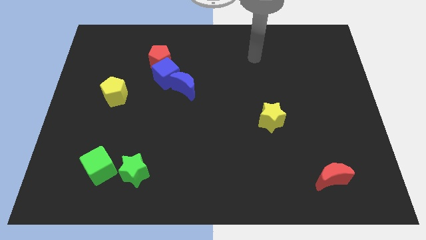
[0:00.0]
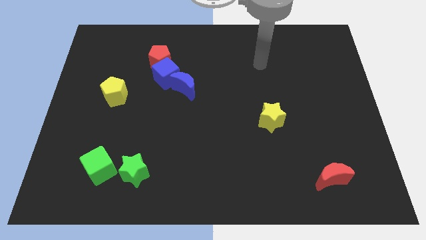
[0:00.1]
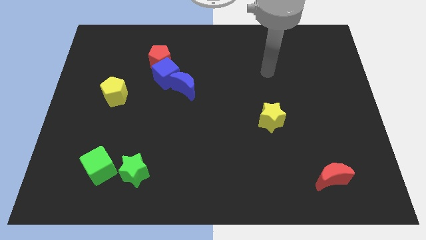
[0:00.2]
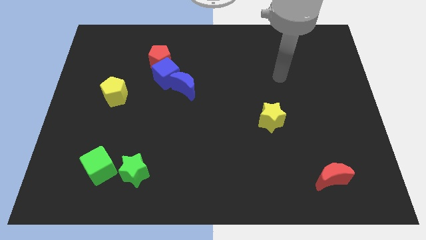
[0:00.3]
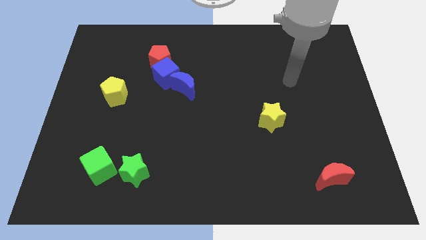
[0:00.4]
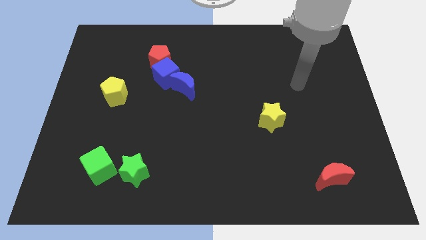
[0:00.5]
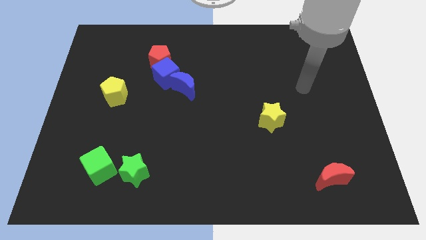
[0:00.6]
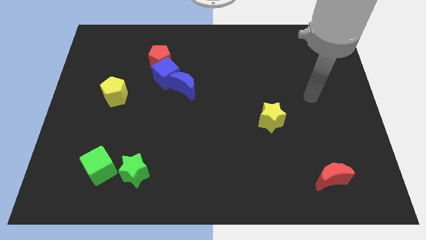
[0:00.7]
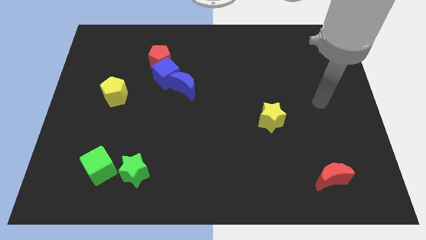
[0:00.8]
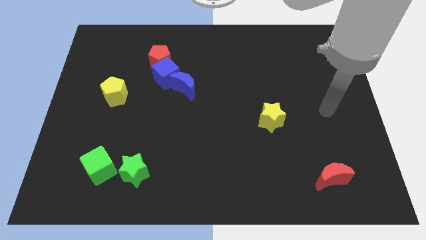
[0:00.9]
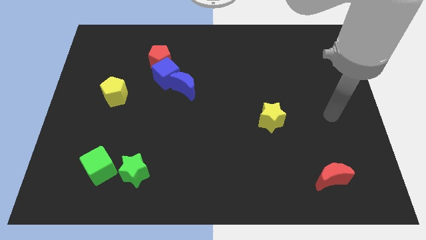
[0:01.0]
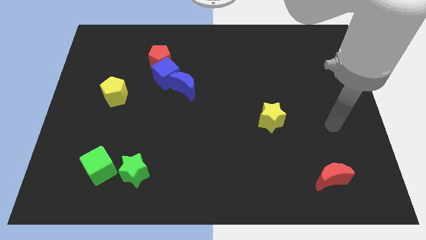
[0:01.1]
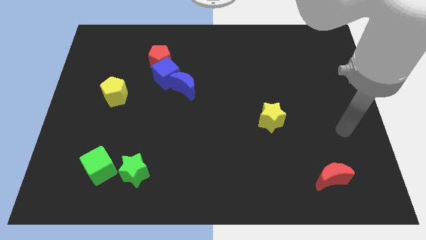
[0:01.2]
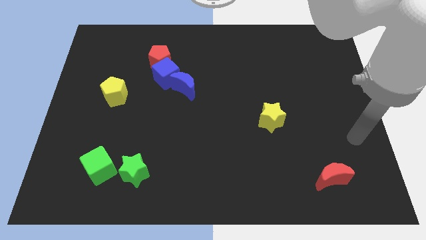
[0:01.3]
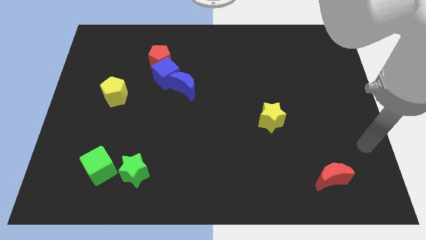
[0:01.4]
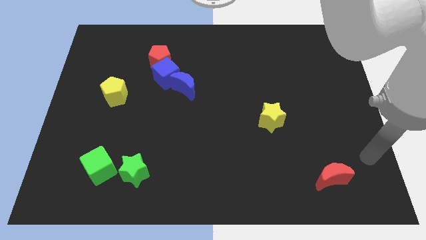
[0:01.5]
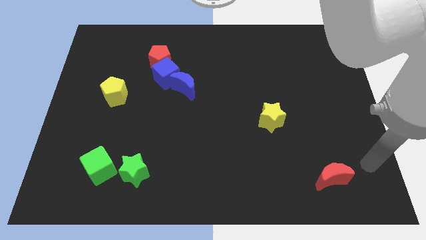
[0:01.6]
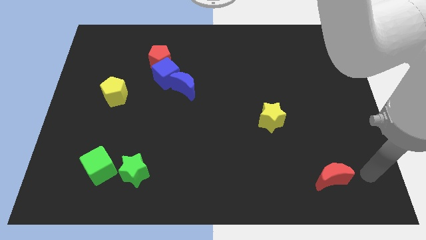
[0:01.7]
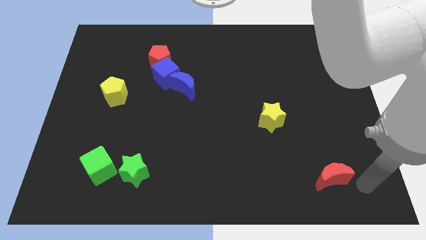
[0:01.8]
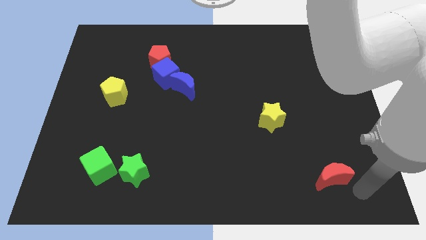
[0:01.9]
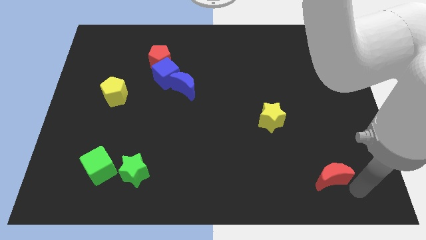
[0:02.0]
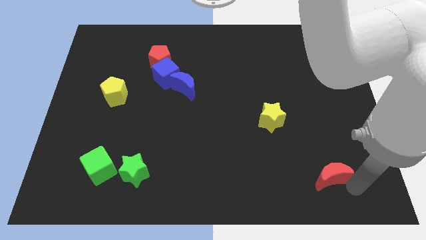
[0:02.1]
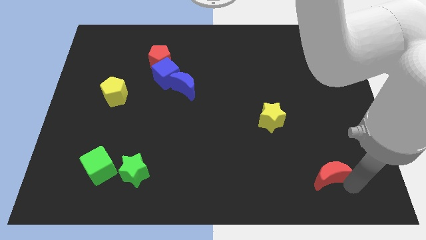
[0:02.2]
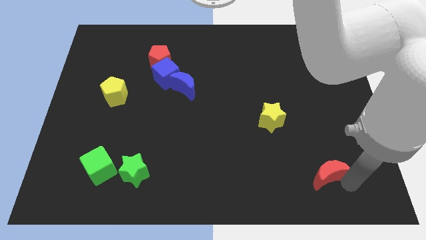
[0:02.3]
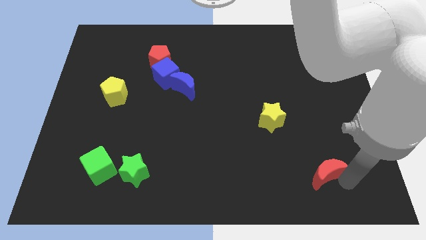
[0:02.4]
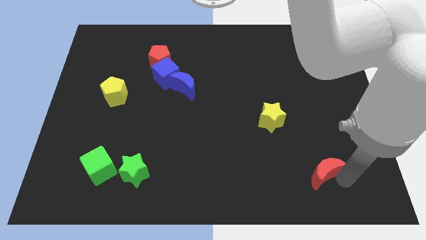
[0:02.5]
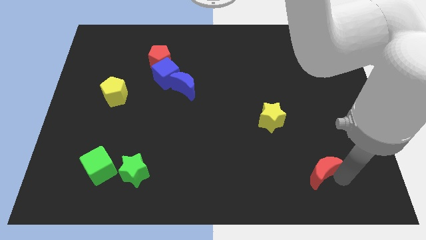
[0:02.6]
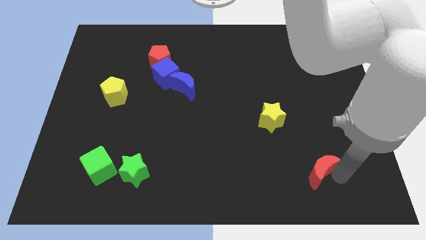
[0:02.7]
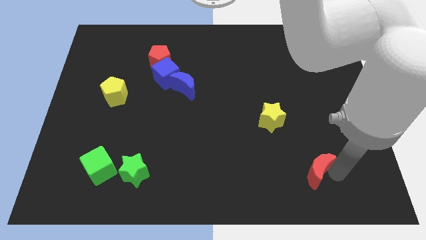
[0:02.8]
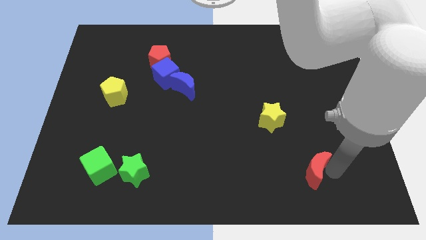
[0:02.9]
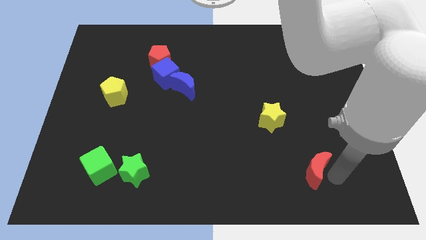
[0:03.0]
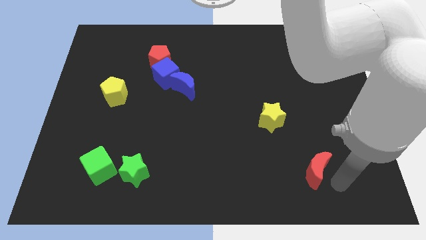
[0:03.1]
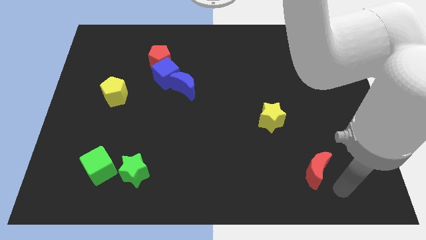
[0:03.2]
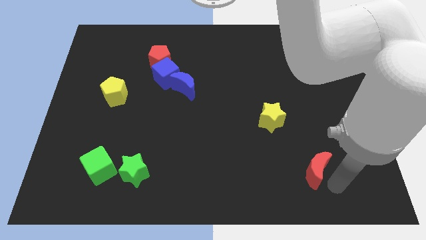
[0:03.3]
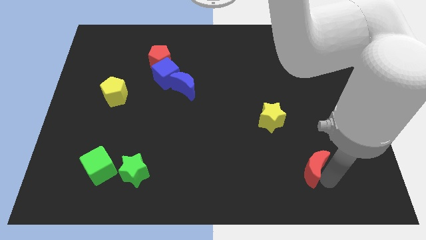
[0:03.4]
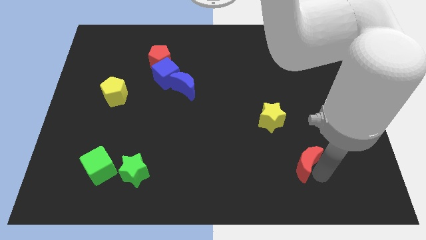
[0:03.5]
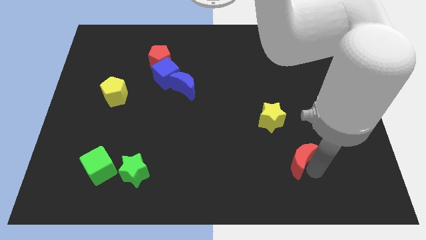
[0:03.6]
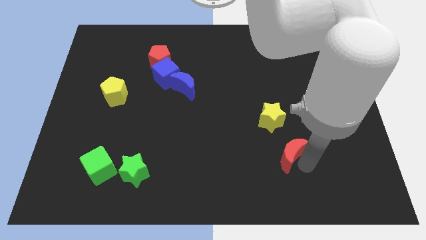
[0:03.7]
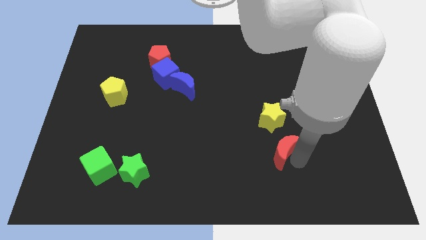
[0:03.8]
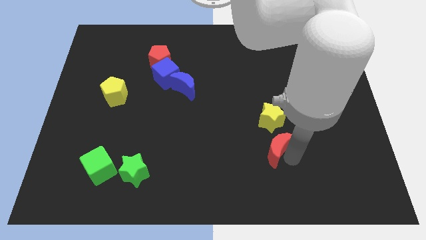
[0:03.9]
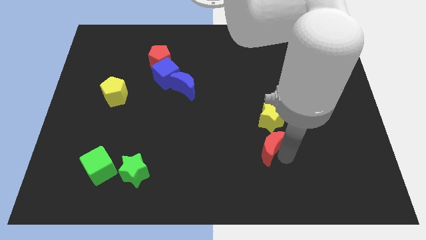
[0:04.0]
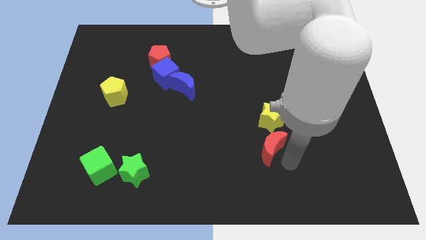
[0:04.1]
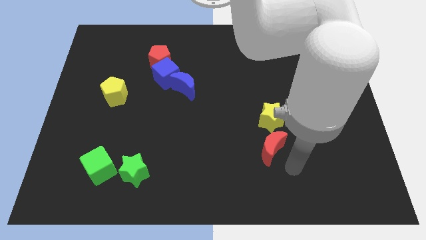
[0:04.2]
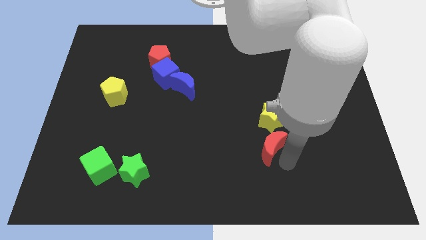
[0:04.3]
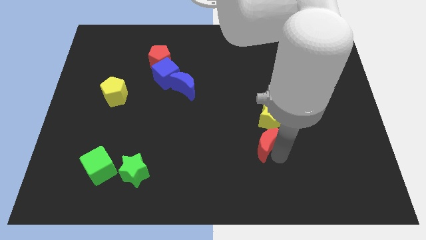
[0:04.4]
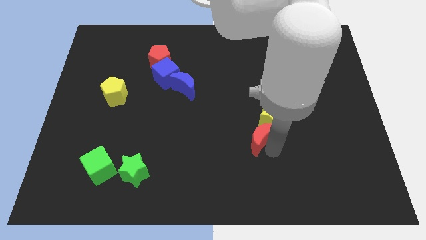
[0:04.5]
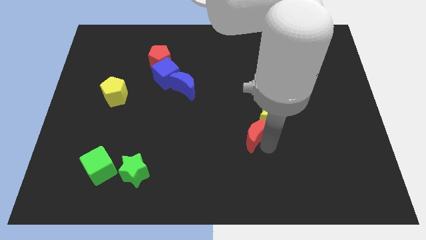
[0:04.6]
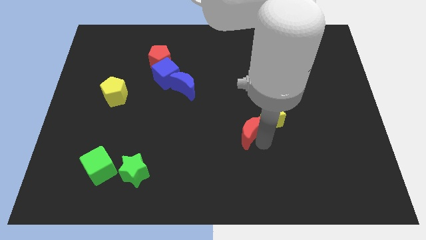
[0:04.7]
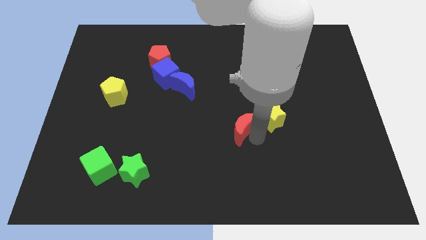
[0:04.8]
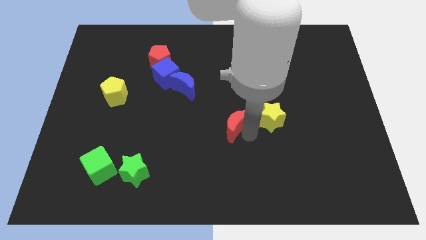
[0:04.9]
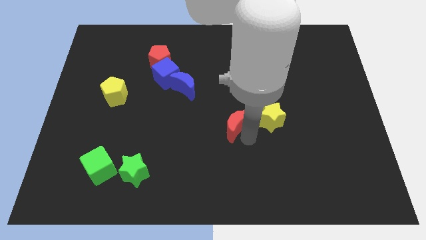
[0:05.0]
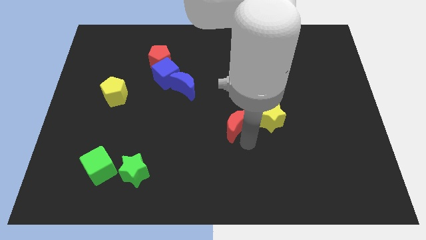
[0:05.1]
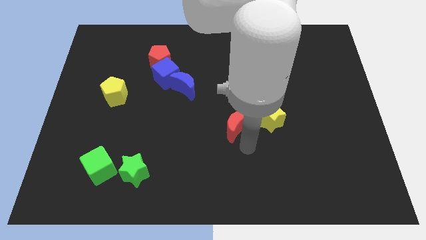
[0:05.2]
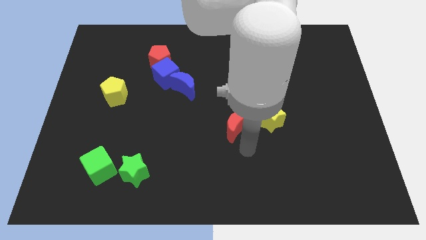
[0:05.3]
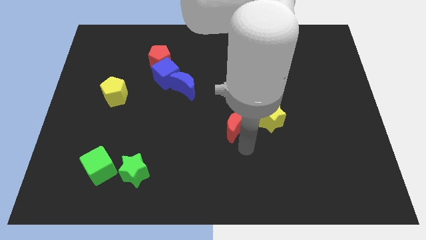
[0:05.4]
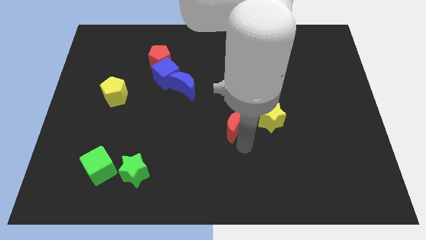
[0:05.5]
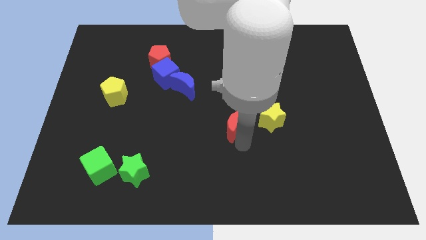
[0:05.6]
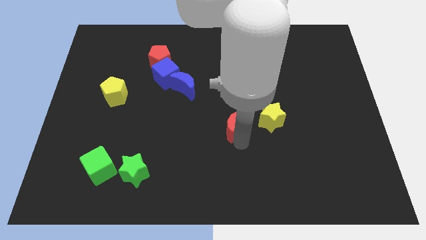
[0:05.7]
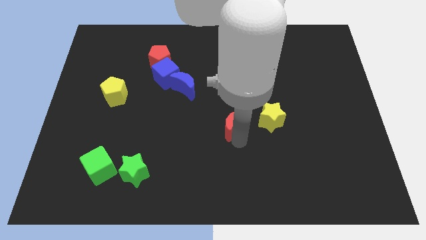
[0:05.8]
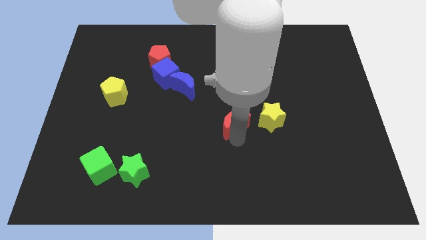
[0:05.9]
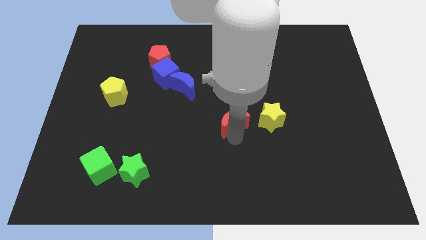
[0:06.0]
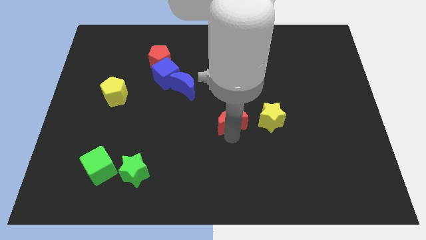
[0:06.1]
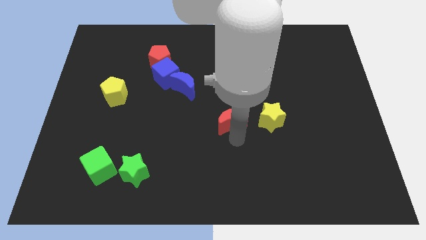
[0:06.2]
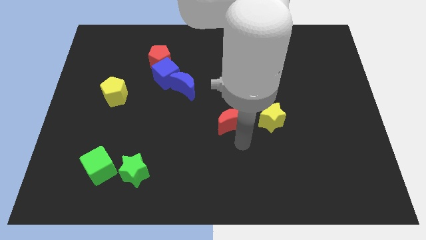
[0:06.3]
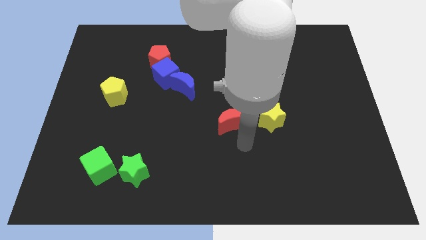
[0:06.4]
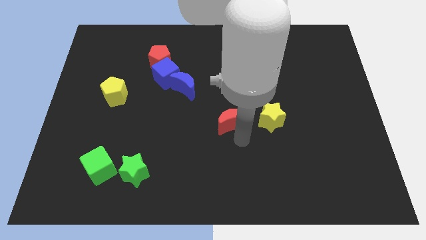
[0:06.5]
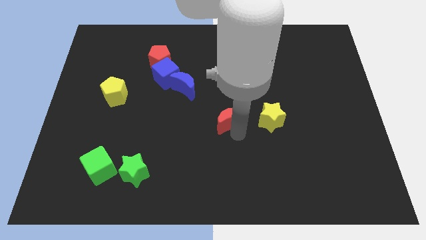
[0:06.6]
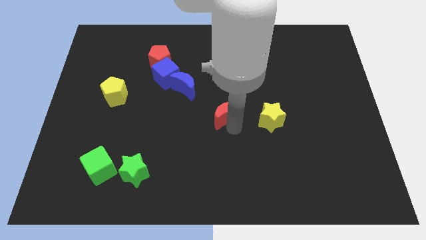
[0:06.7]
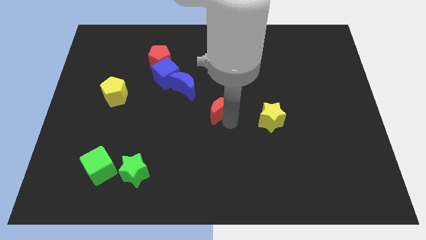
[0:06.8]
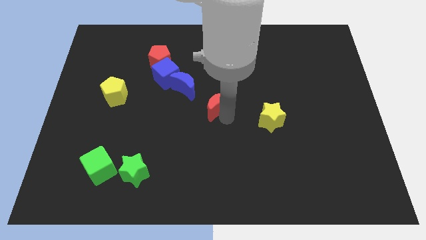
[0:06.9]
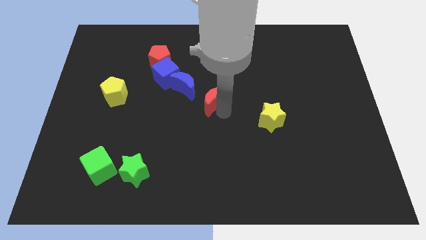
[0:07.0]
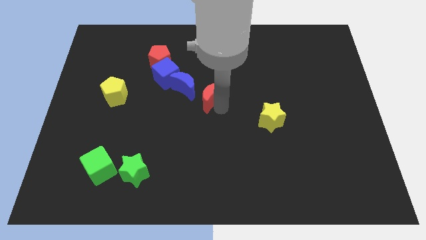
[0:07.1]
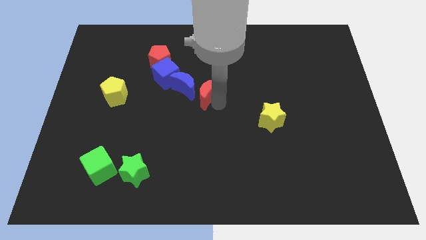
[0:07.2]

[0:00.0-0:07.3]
push the red moon close to the blue moon
